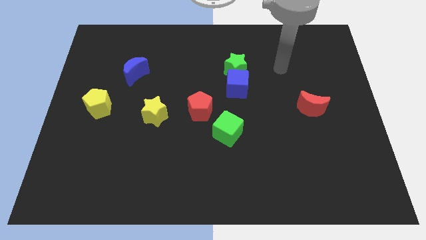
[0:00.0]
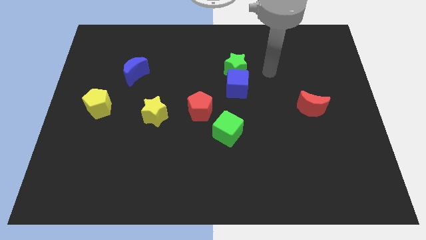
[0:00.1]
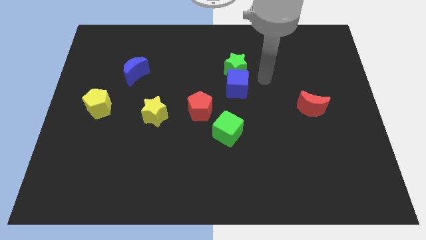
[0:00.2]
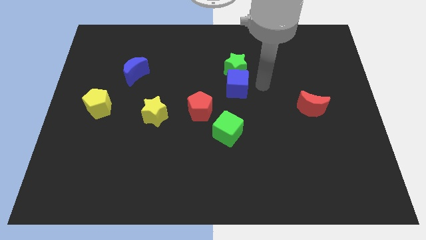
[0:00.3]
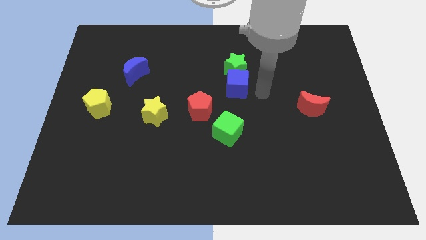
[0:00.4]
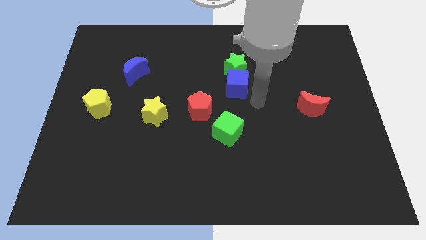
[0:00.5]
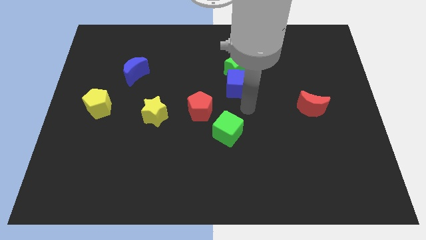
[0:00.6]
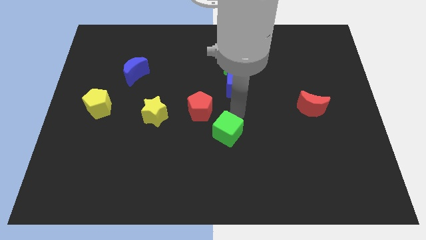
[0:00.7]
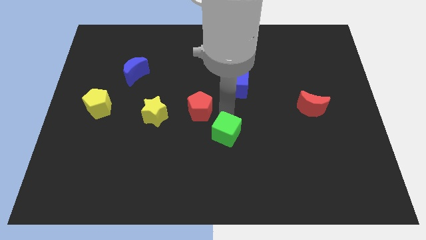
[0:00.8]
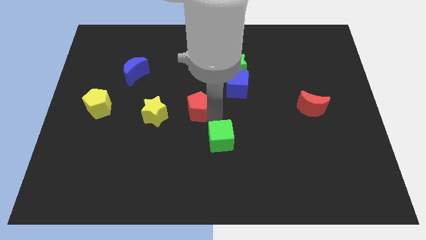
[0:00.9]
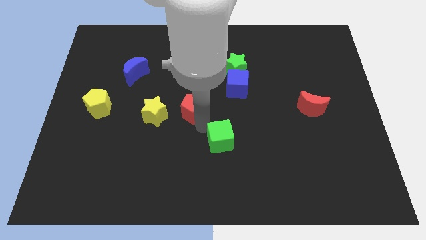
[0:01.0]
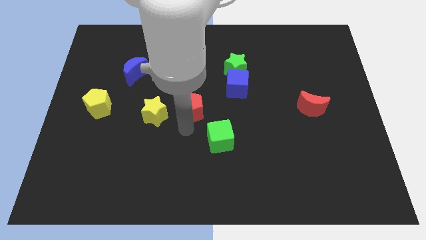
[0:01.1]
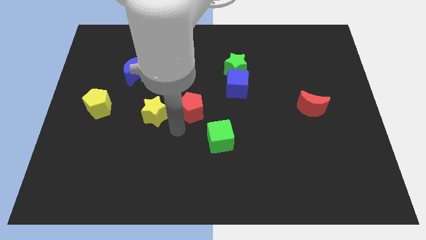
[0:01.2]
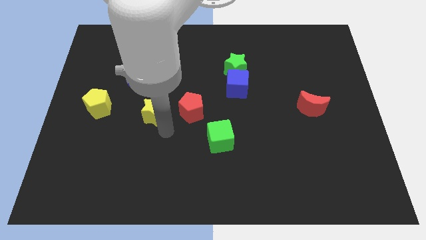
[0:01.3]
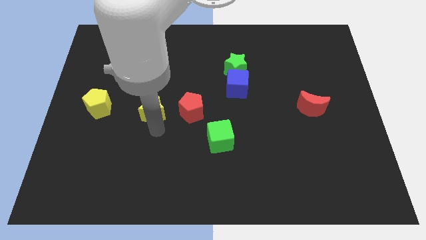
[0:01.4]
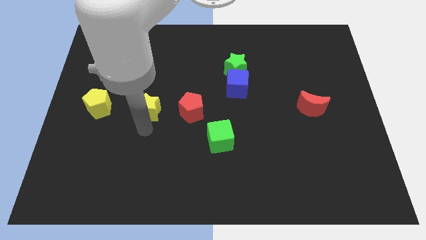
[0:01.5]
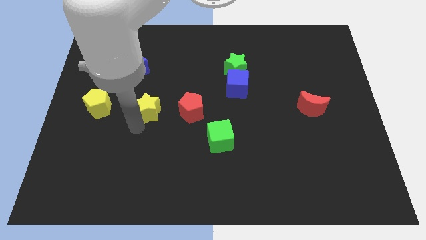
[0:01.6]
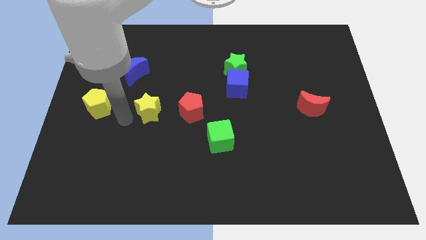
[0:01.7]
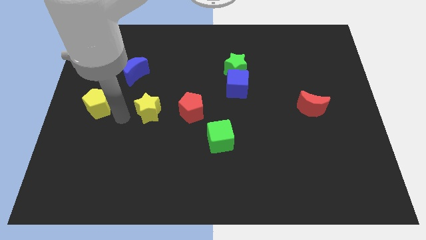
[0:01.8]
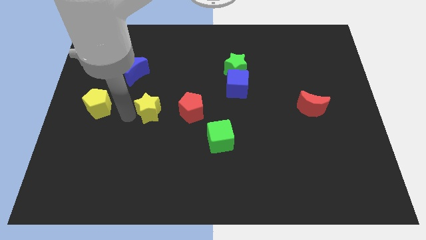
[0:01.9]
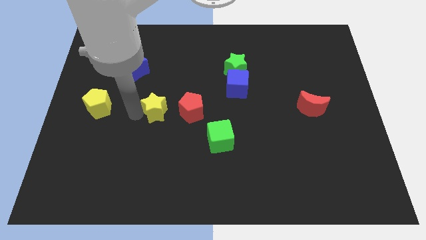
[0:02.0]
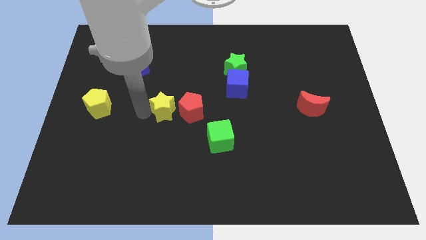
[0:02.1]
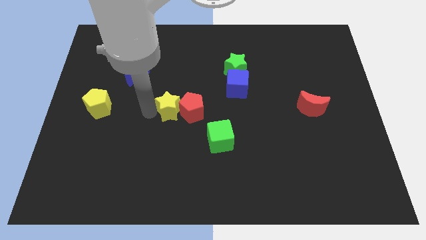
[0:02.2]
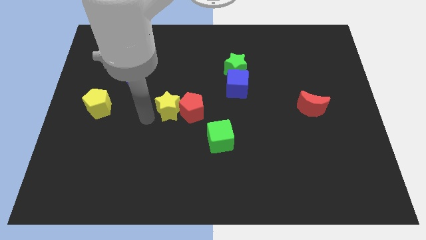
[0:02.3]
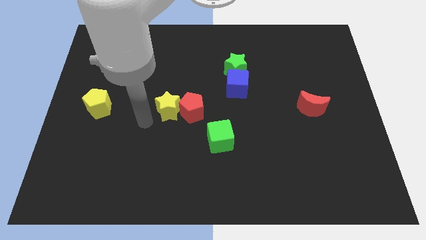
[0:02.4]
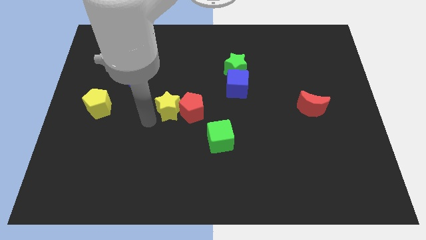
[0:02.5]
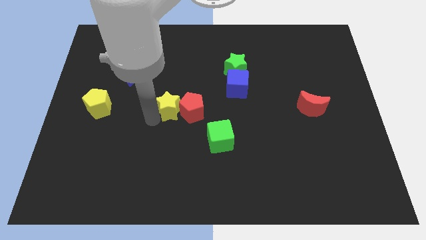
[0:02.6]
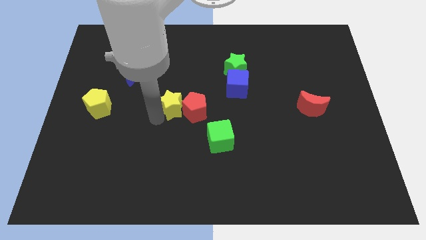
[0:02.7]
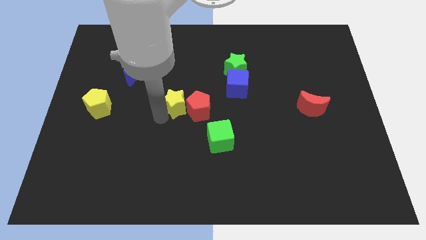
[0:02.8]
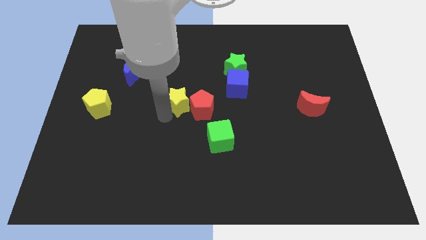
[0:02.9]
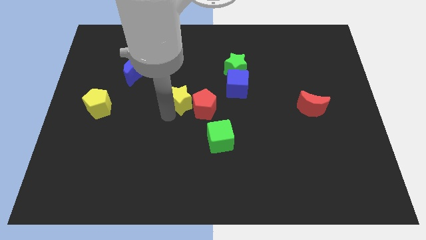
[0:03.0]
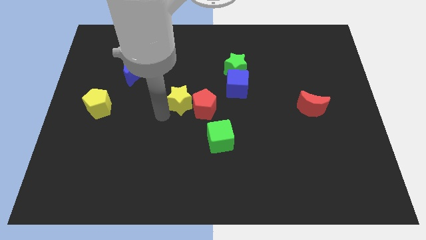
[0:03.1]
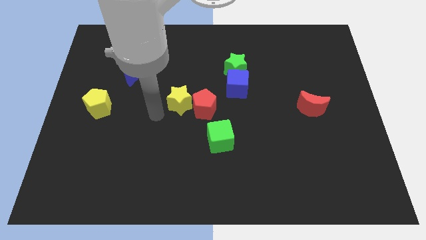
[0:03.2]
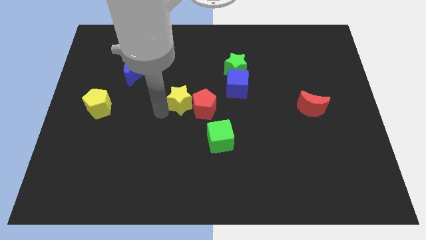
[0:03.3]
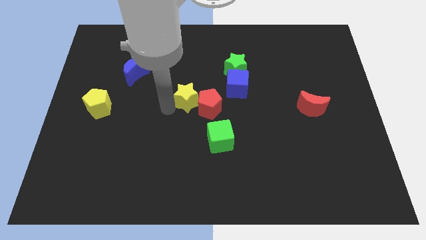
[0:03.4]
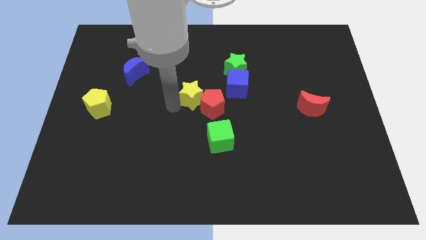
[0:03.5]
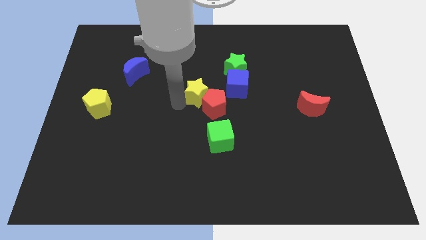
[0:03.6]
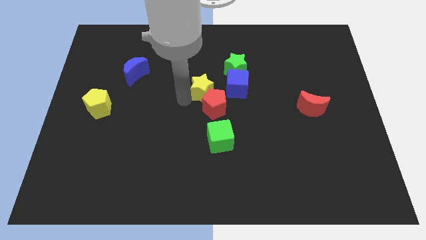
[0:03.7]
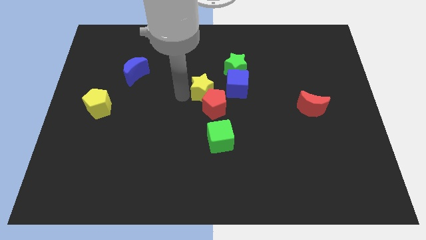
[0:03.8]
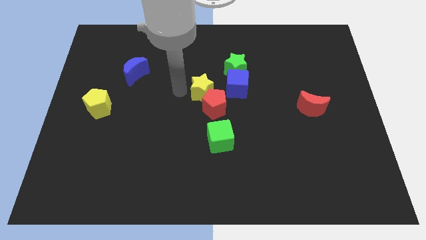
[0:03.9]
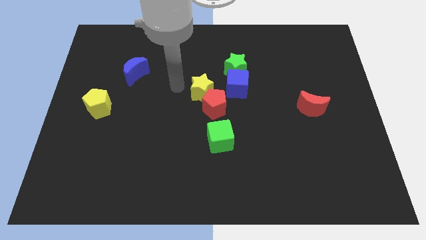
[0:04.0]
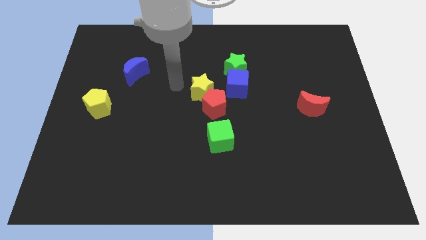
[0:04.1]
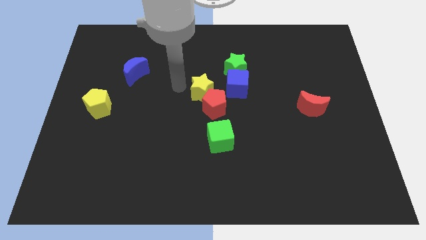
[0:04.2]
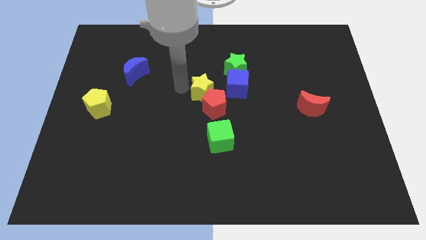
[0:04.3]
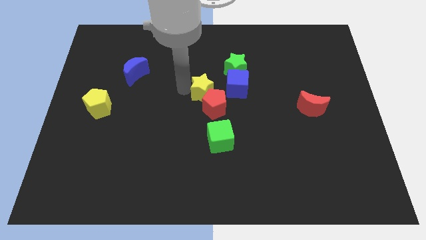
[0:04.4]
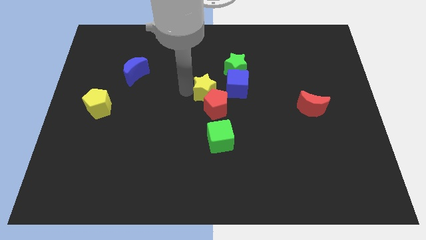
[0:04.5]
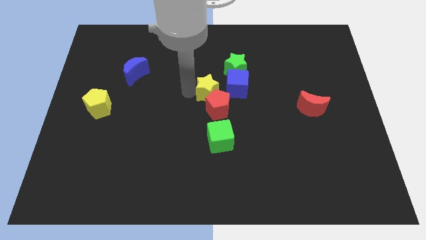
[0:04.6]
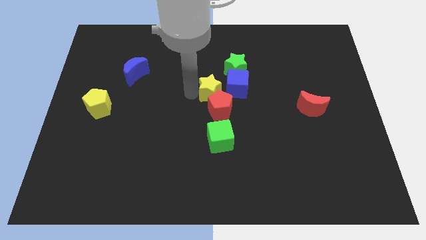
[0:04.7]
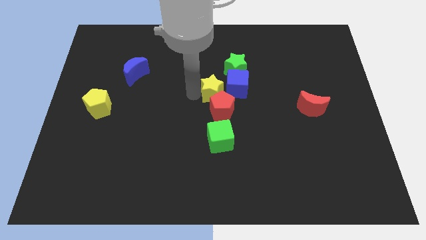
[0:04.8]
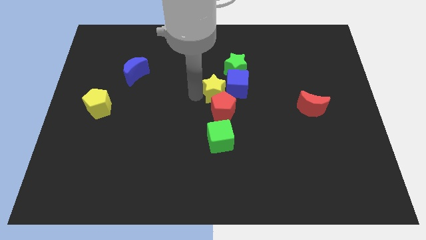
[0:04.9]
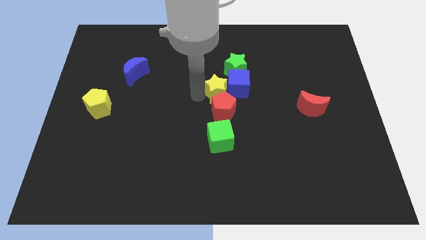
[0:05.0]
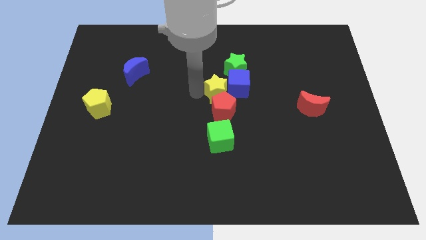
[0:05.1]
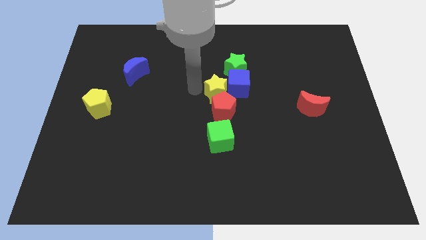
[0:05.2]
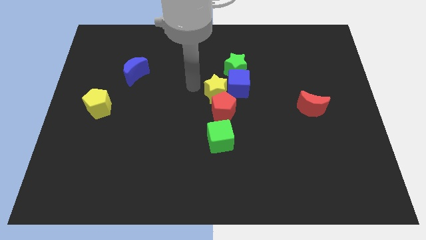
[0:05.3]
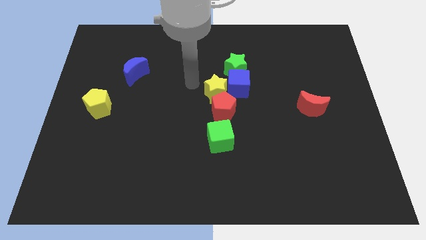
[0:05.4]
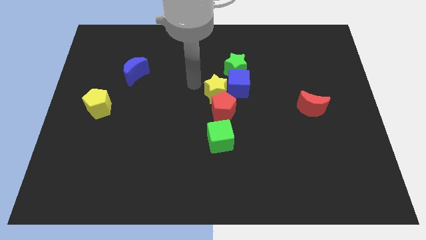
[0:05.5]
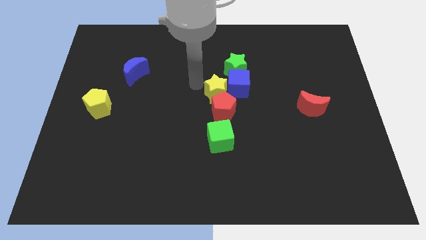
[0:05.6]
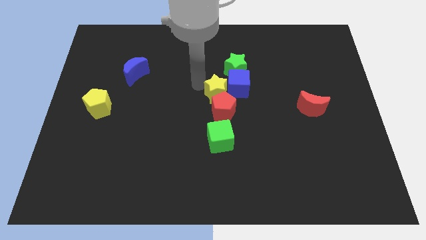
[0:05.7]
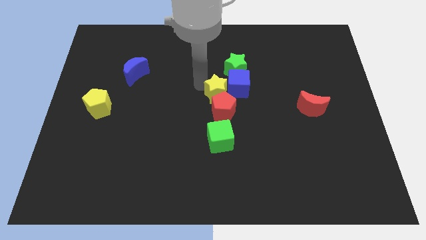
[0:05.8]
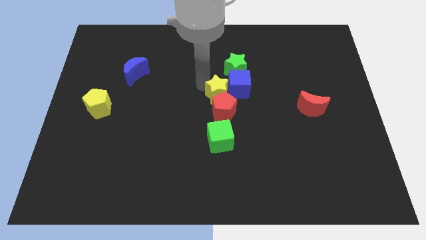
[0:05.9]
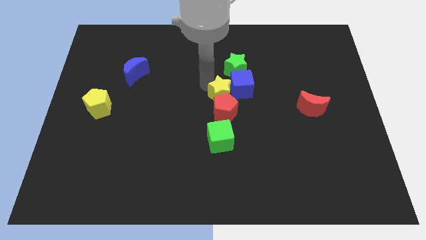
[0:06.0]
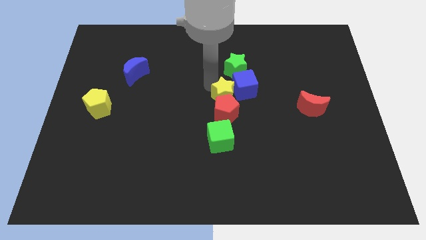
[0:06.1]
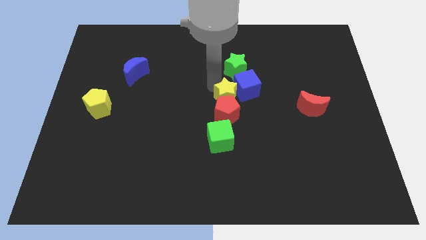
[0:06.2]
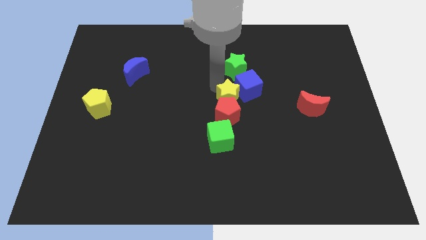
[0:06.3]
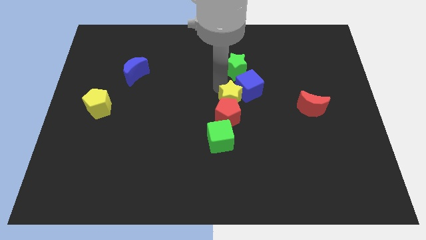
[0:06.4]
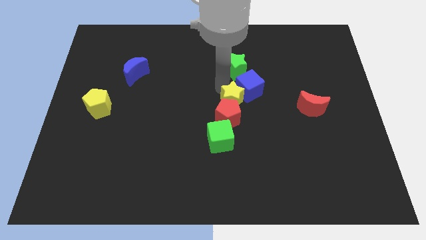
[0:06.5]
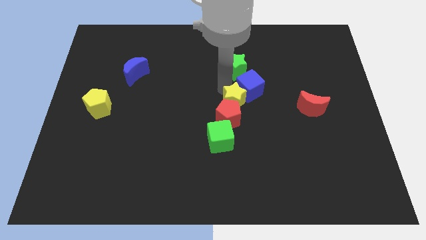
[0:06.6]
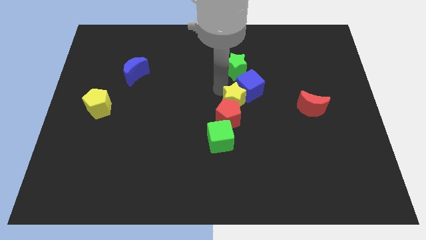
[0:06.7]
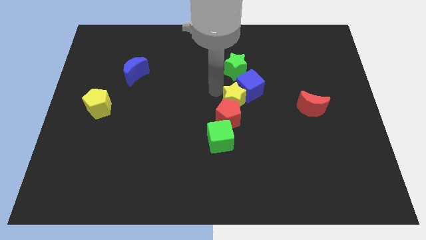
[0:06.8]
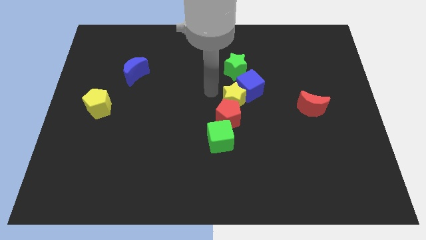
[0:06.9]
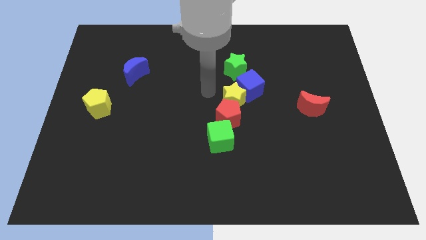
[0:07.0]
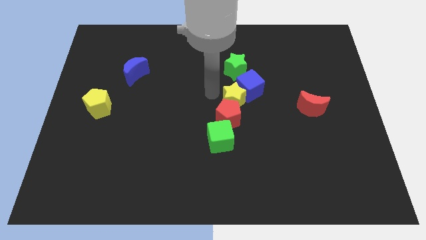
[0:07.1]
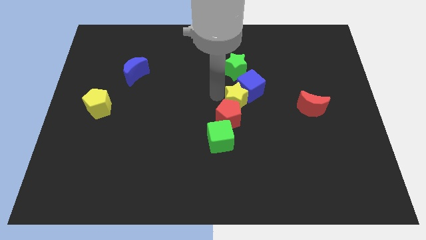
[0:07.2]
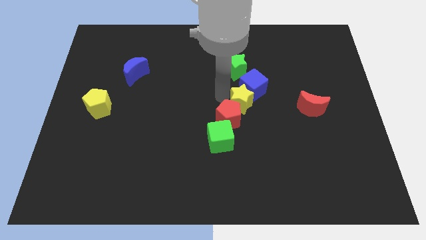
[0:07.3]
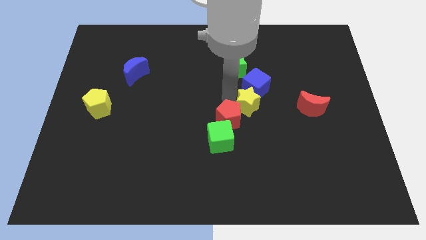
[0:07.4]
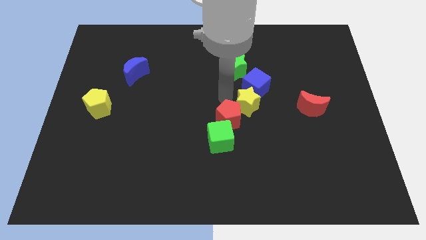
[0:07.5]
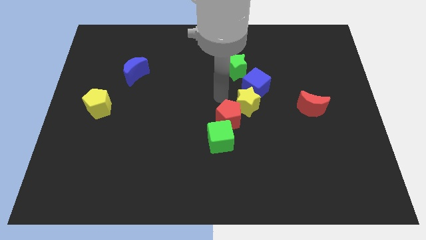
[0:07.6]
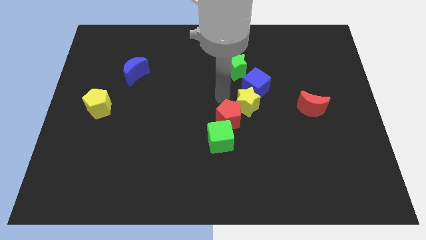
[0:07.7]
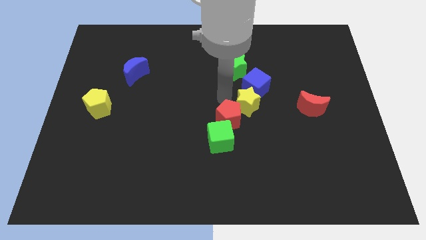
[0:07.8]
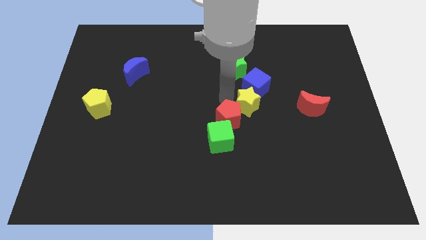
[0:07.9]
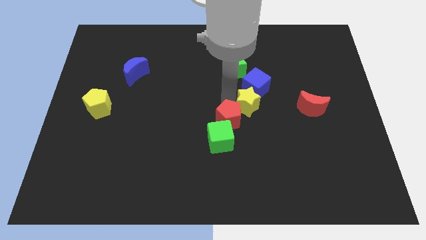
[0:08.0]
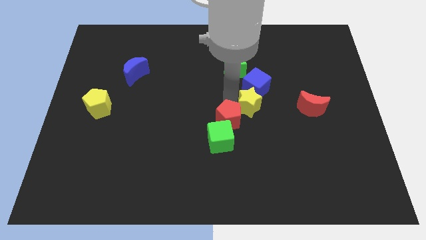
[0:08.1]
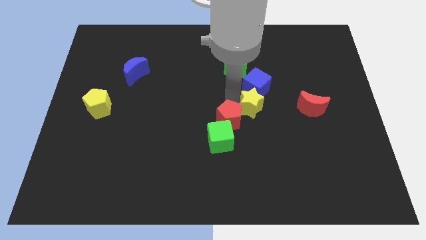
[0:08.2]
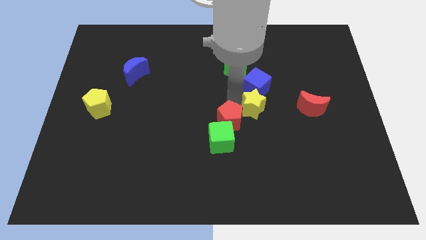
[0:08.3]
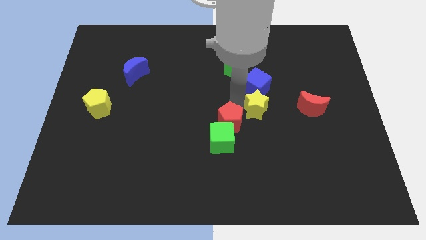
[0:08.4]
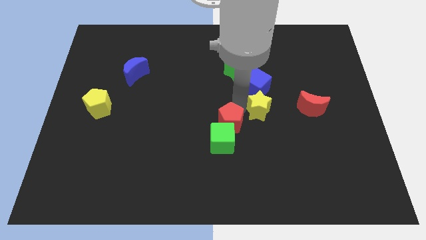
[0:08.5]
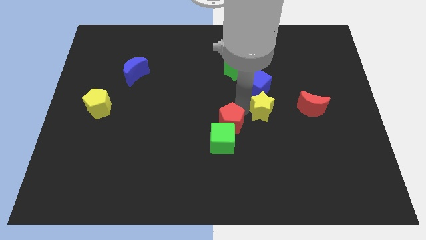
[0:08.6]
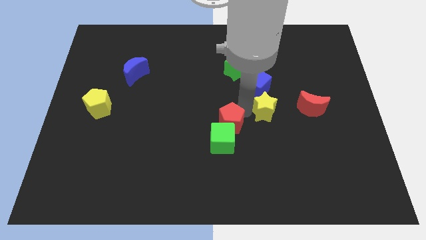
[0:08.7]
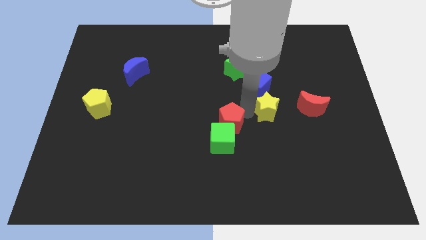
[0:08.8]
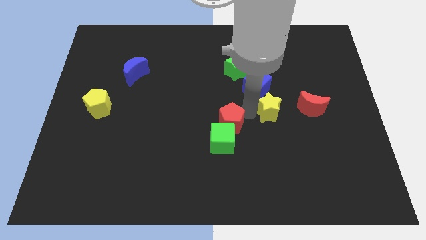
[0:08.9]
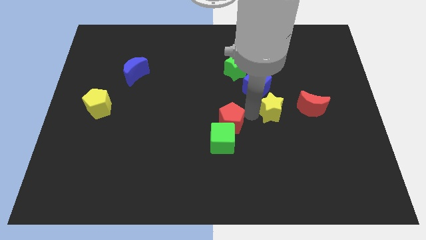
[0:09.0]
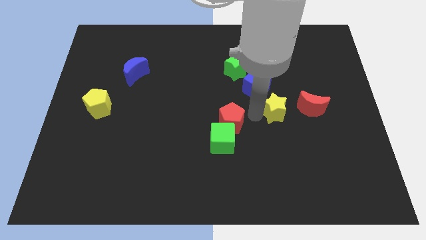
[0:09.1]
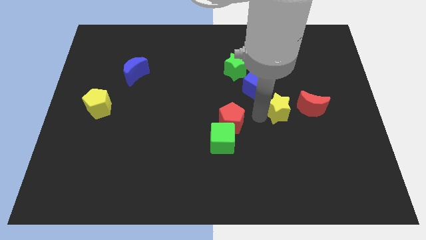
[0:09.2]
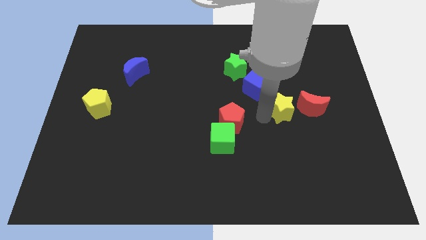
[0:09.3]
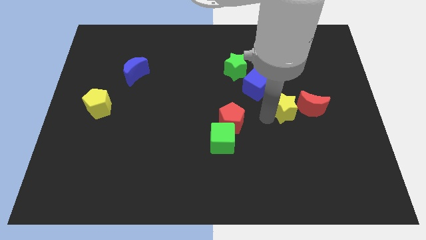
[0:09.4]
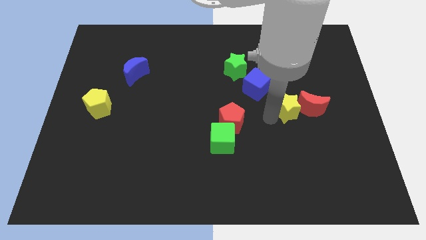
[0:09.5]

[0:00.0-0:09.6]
push the yellow star next to the red moon
